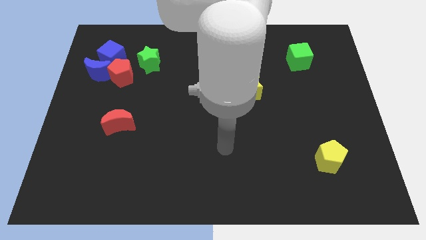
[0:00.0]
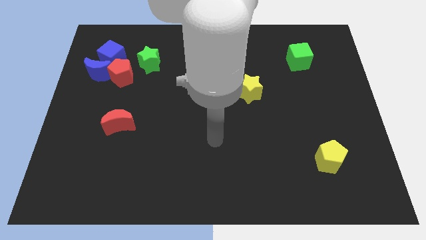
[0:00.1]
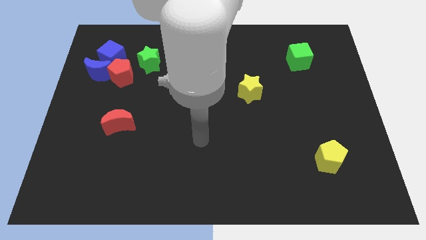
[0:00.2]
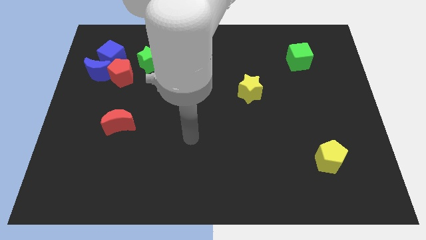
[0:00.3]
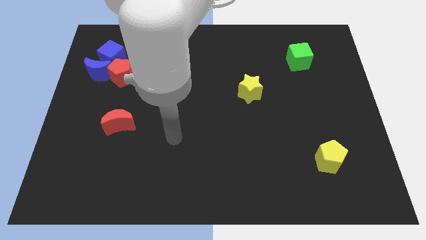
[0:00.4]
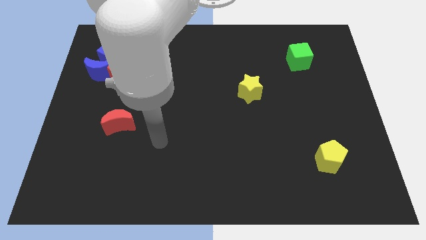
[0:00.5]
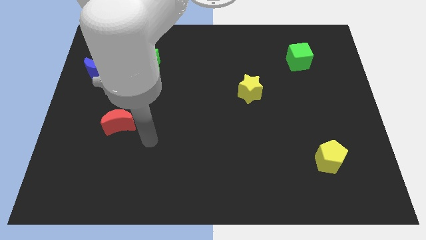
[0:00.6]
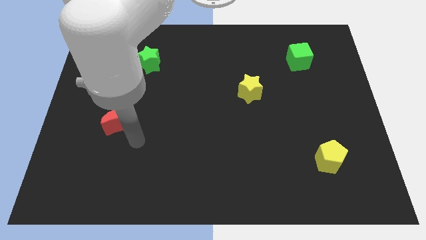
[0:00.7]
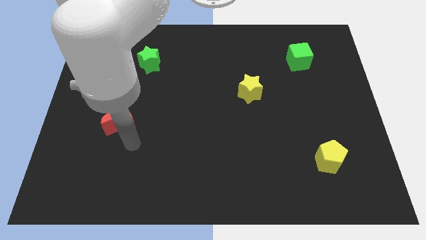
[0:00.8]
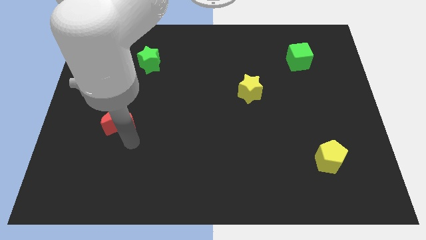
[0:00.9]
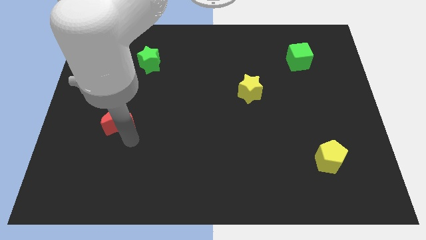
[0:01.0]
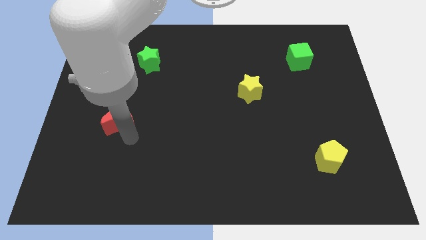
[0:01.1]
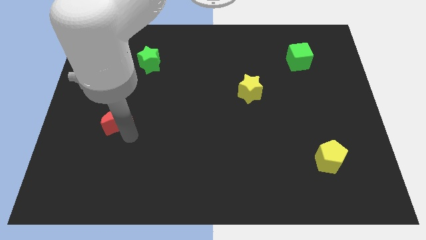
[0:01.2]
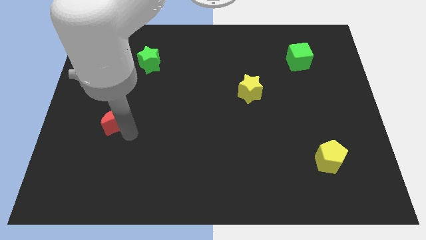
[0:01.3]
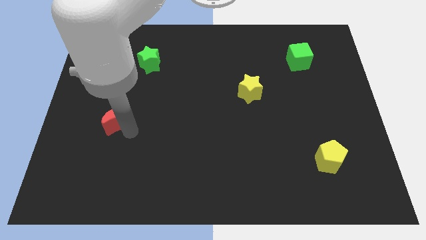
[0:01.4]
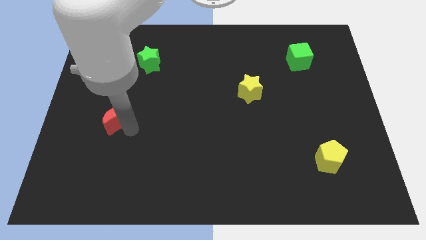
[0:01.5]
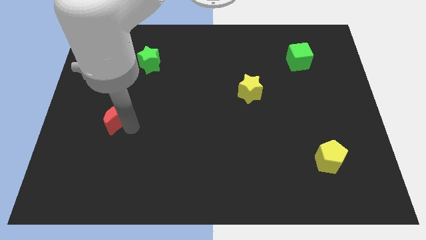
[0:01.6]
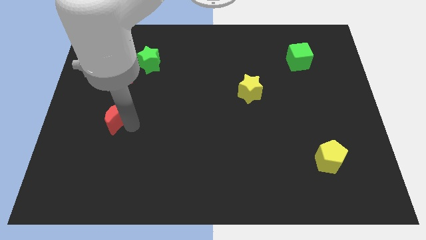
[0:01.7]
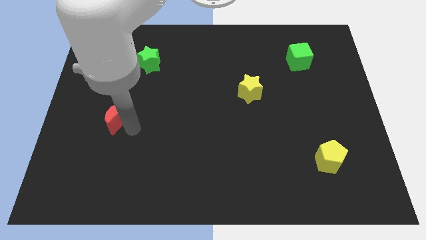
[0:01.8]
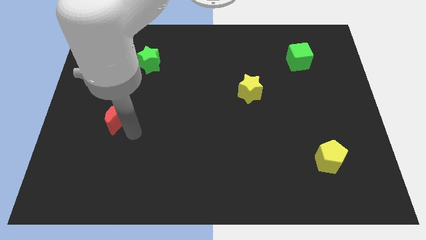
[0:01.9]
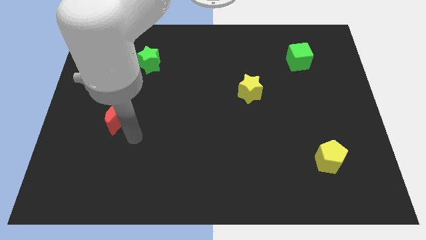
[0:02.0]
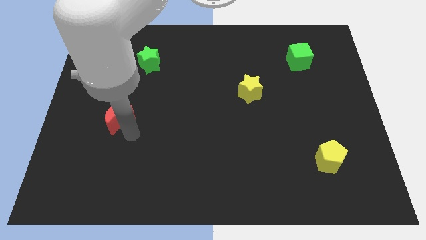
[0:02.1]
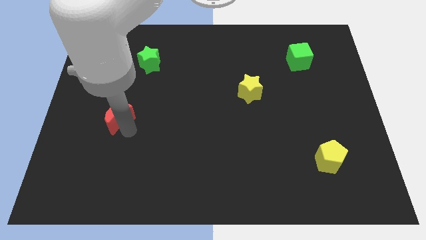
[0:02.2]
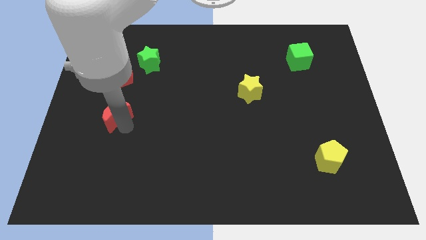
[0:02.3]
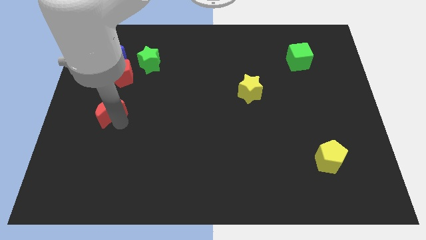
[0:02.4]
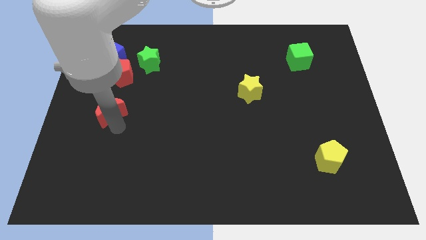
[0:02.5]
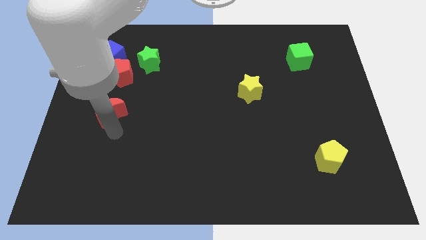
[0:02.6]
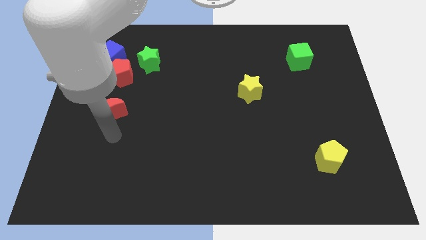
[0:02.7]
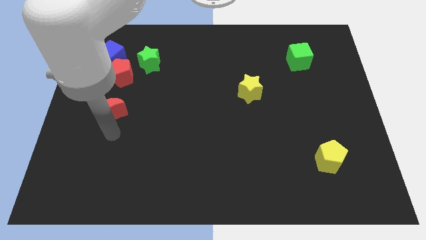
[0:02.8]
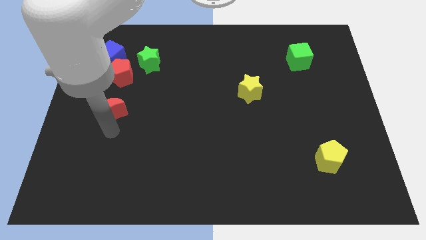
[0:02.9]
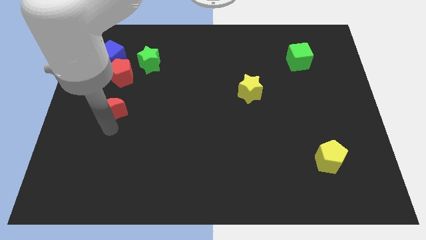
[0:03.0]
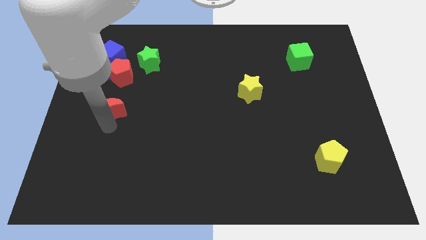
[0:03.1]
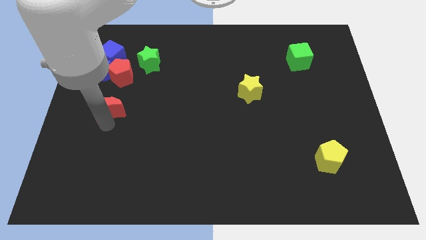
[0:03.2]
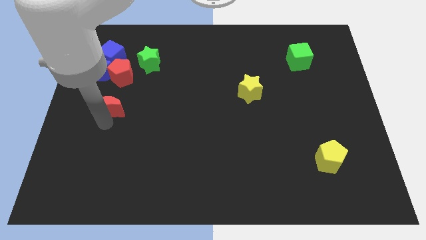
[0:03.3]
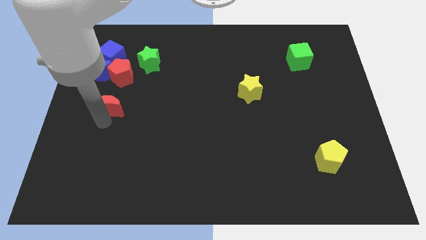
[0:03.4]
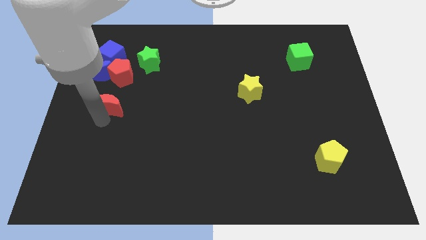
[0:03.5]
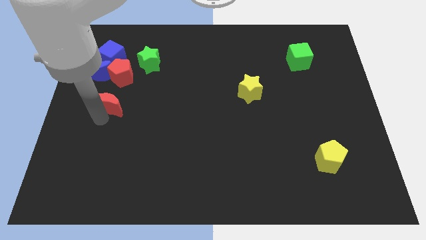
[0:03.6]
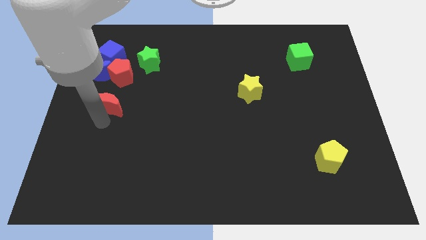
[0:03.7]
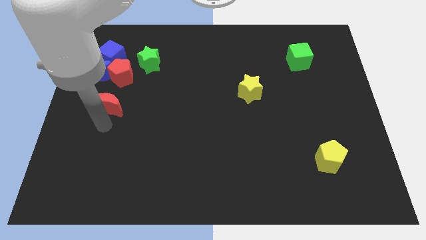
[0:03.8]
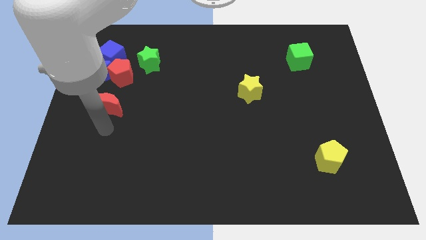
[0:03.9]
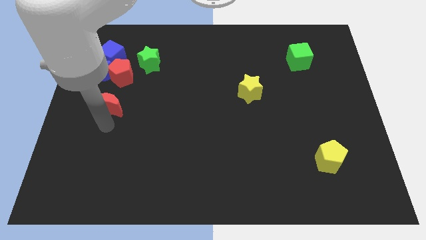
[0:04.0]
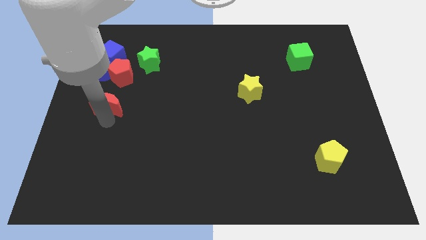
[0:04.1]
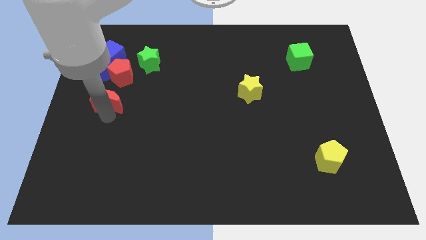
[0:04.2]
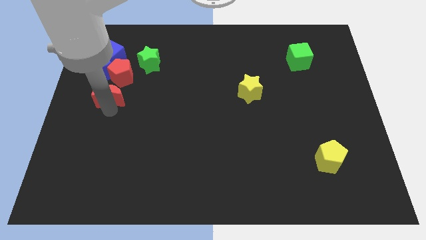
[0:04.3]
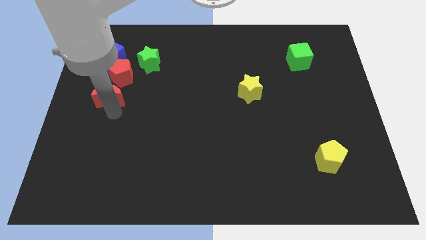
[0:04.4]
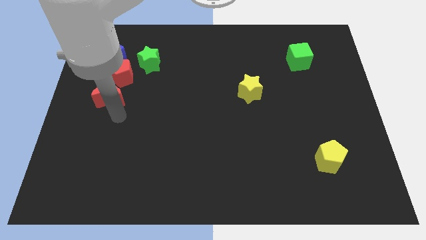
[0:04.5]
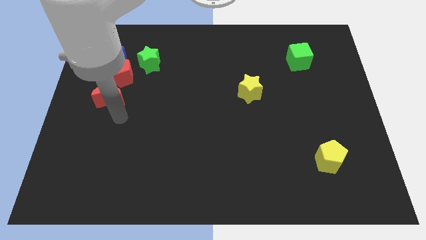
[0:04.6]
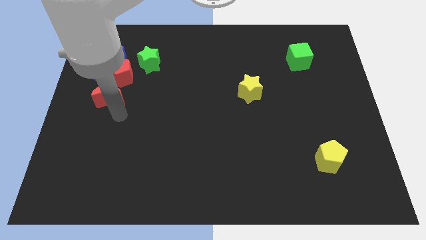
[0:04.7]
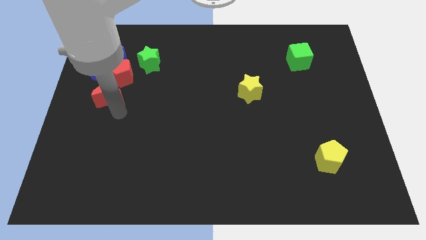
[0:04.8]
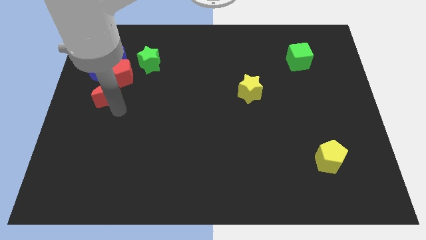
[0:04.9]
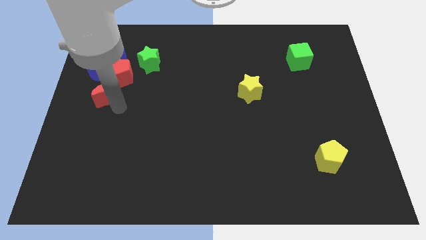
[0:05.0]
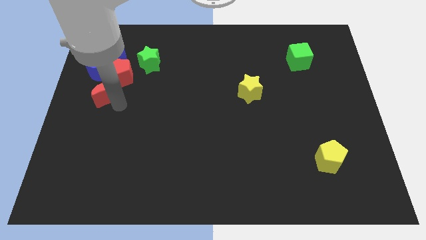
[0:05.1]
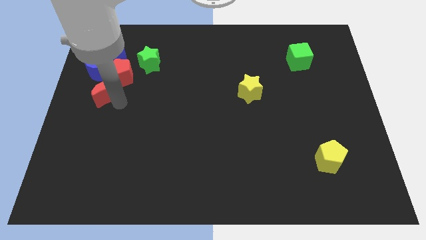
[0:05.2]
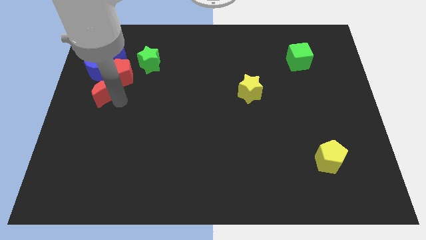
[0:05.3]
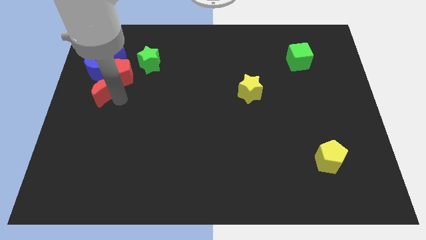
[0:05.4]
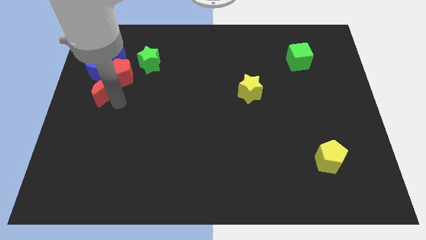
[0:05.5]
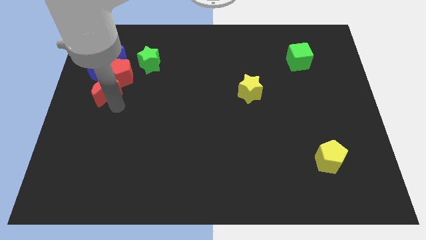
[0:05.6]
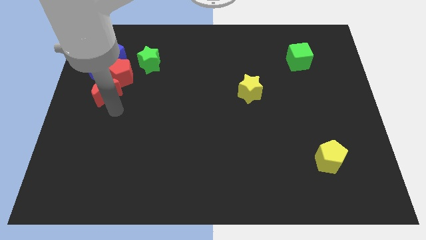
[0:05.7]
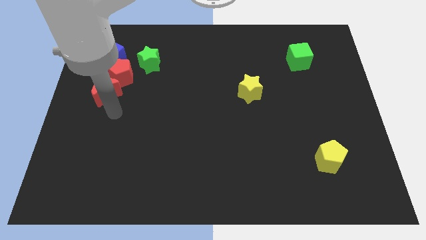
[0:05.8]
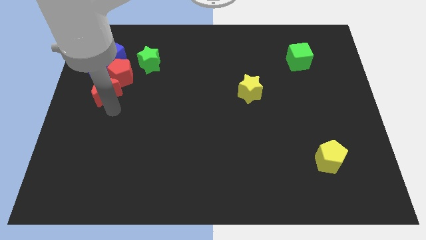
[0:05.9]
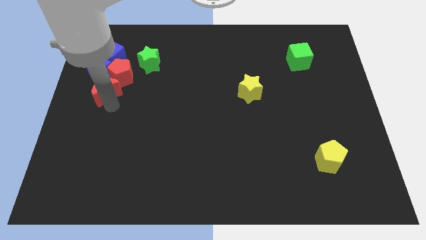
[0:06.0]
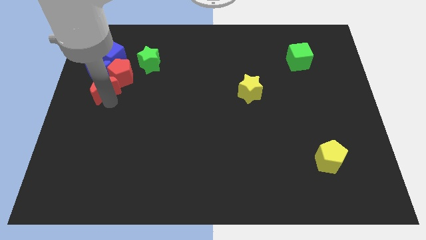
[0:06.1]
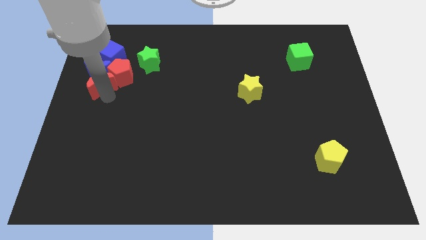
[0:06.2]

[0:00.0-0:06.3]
move the red moon towards the blue moon
